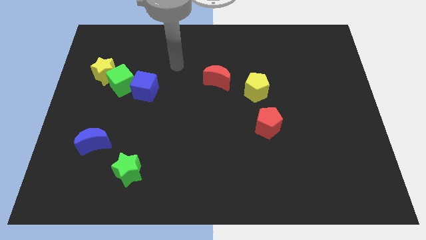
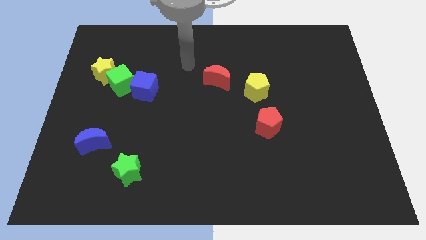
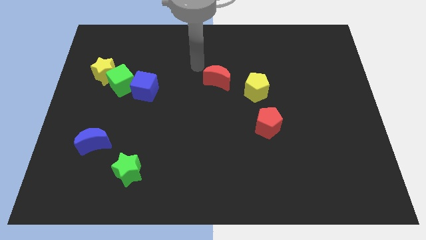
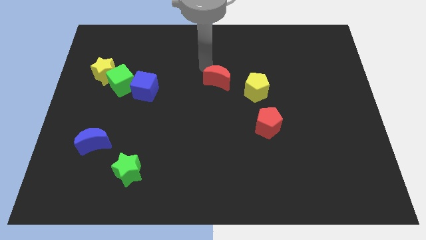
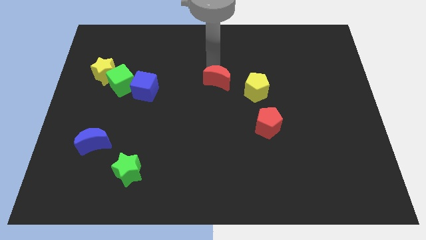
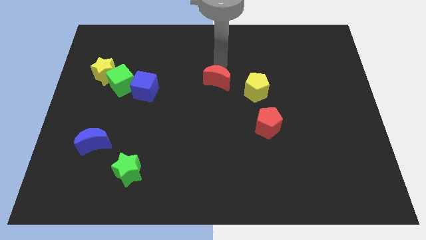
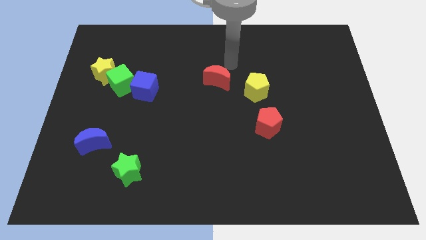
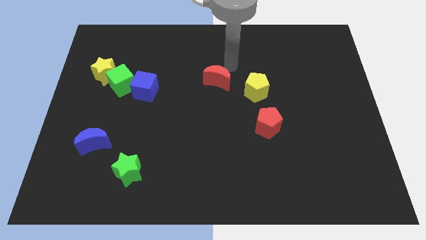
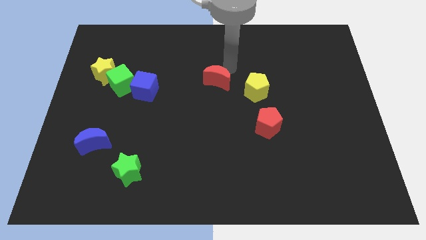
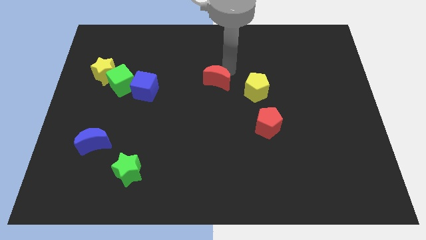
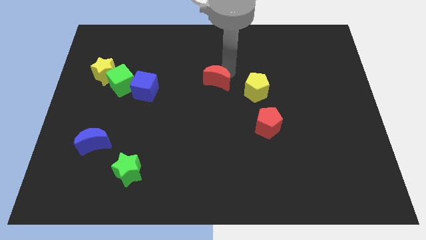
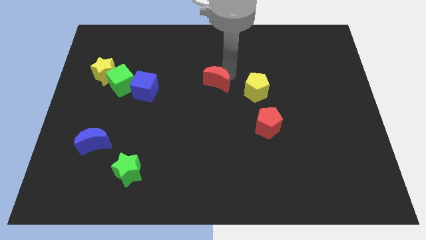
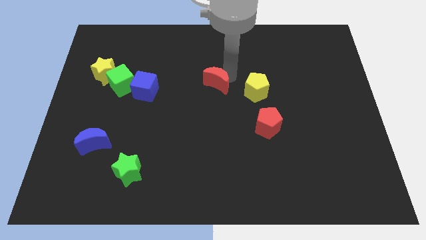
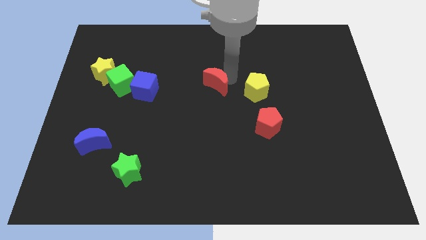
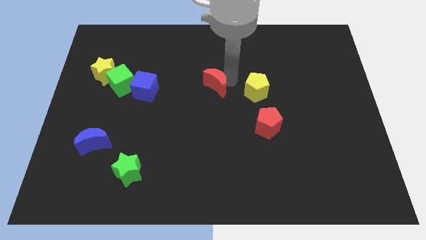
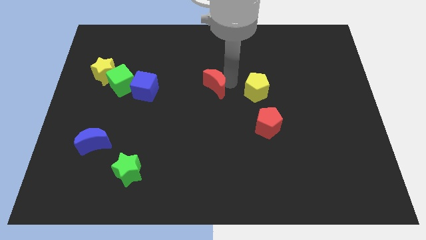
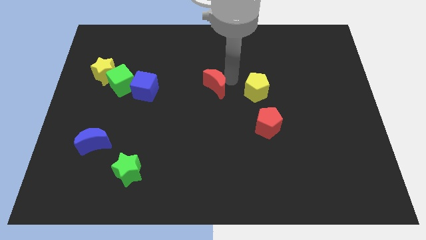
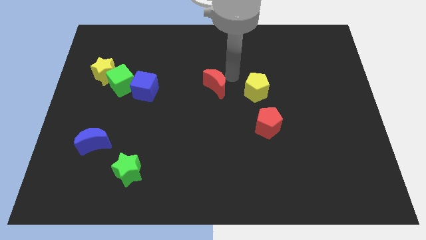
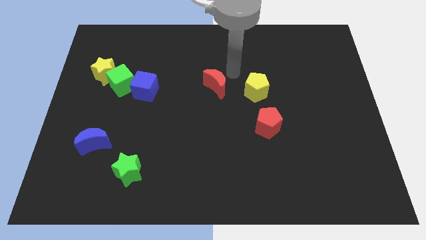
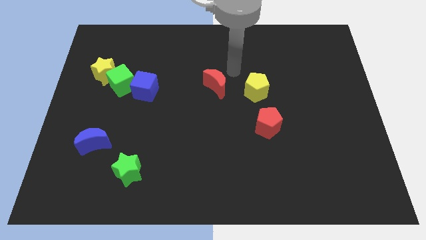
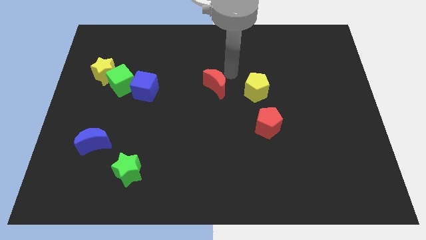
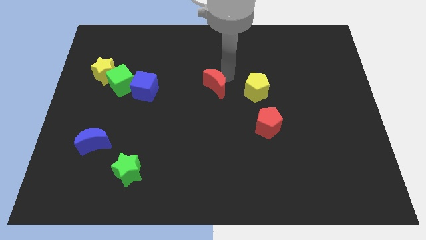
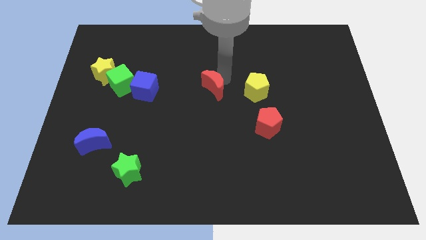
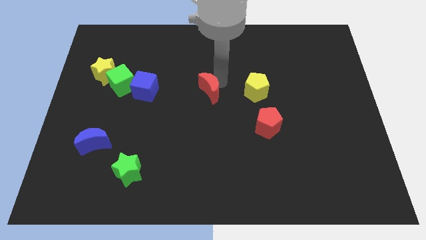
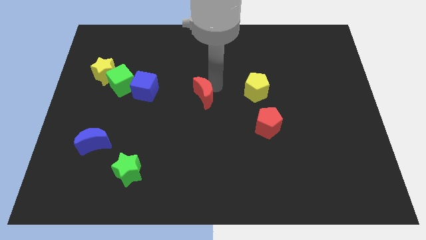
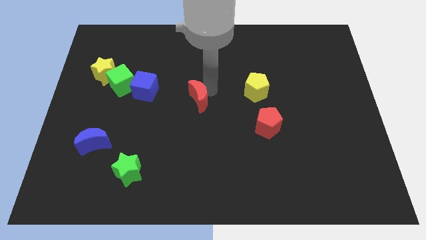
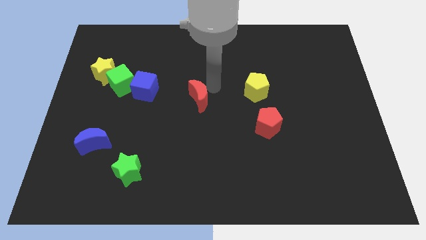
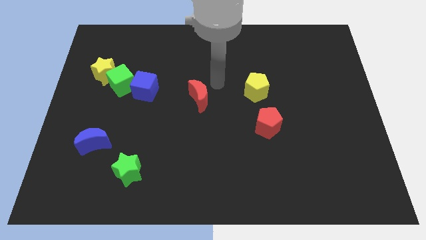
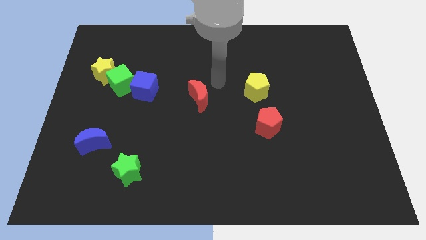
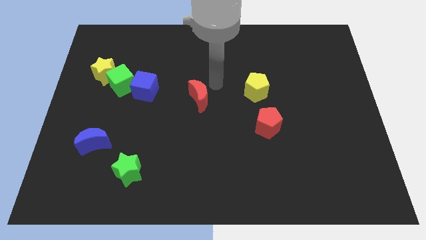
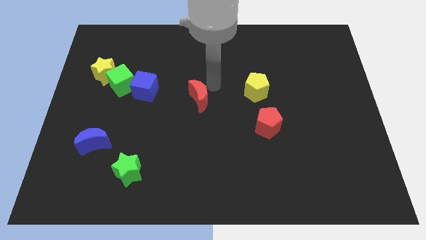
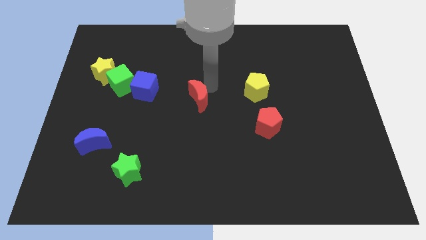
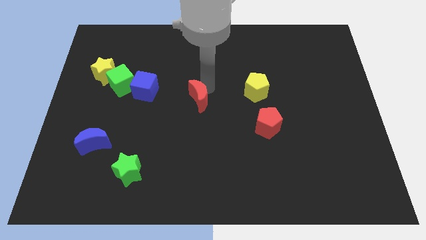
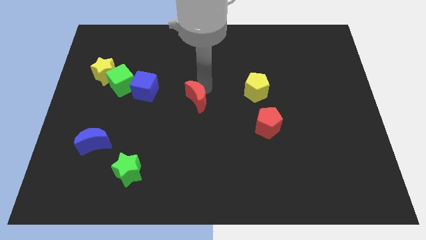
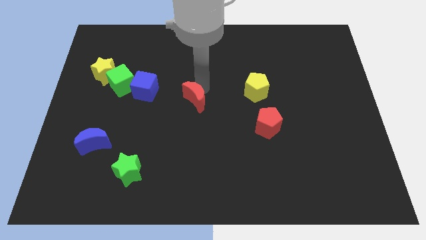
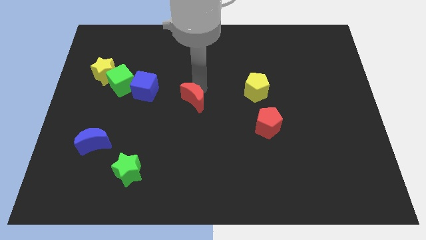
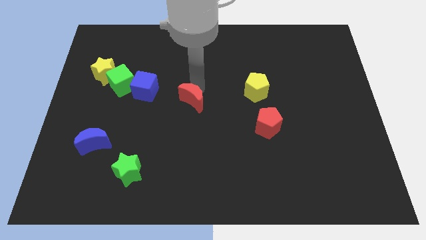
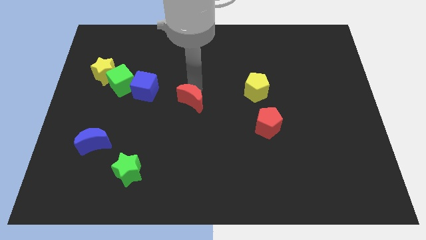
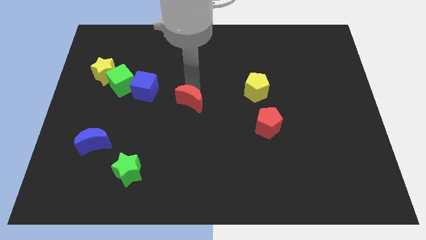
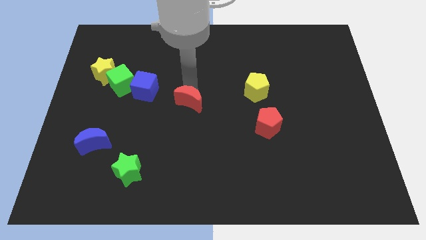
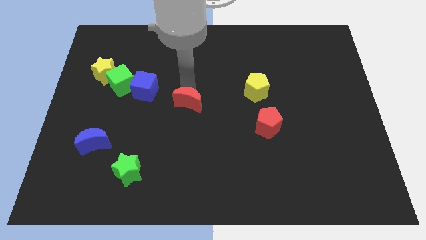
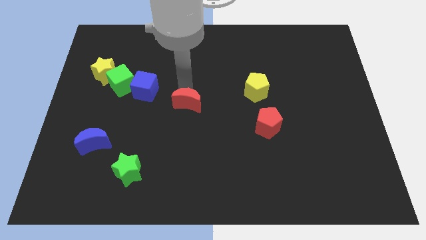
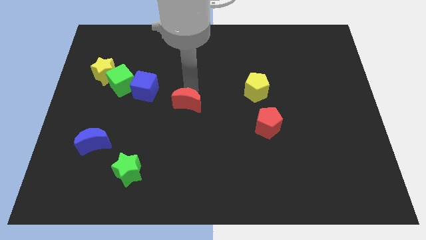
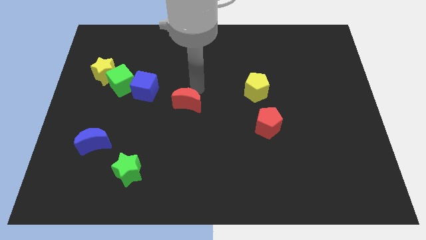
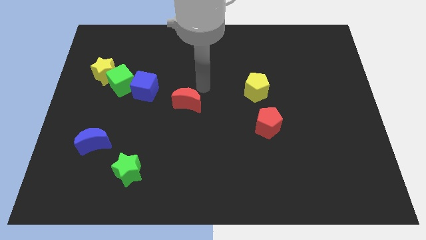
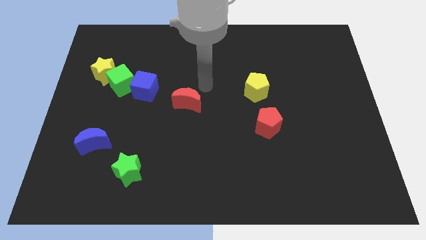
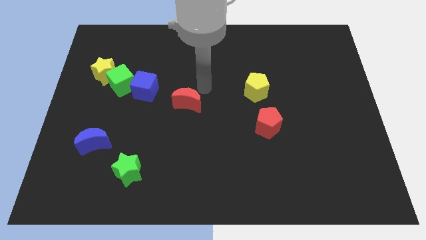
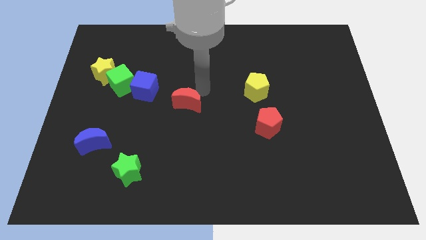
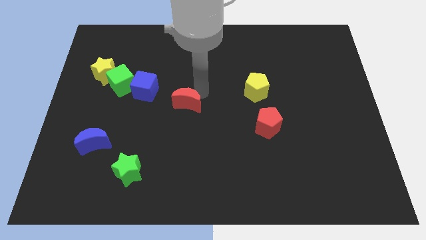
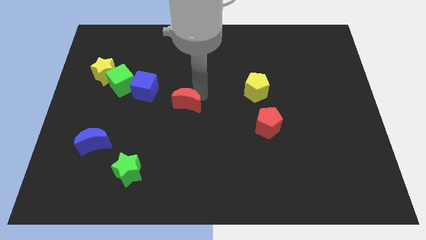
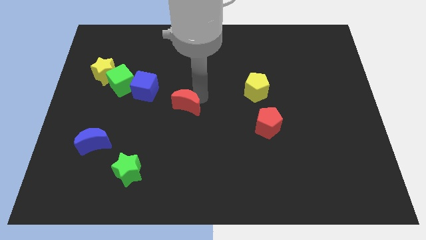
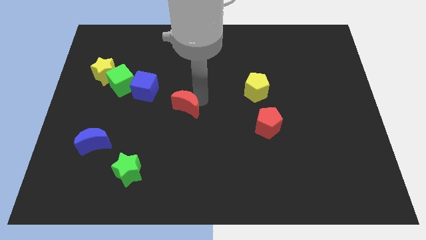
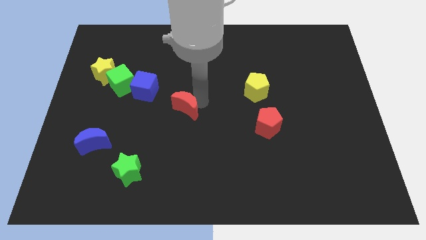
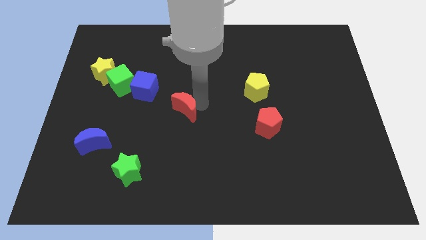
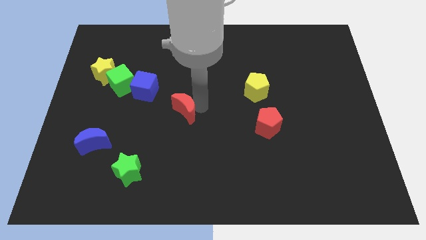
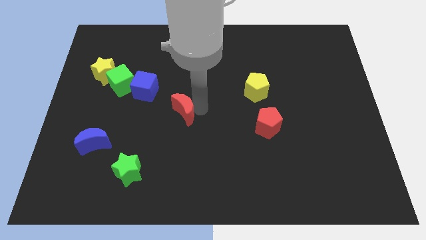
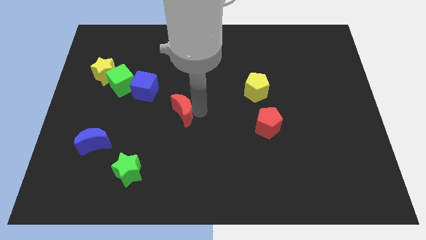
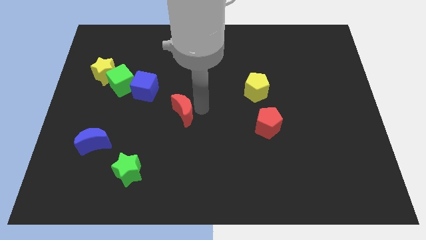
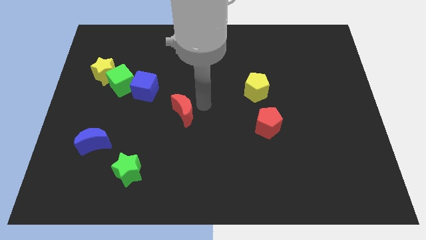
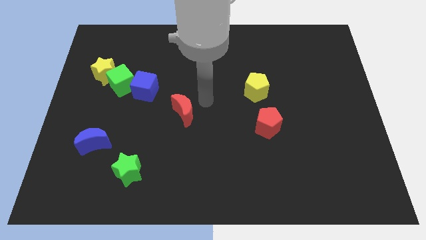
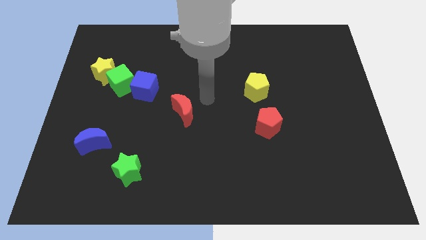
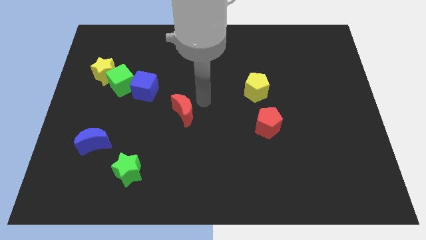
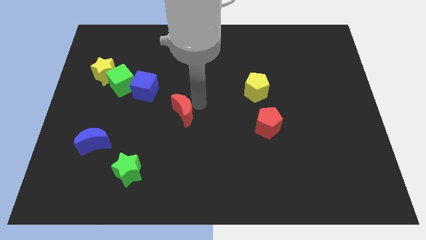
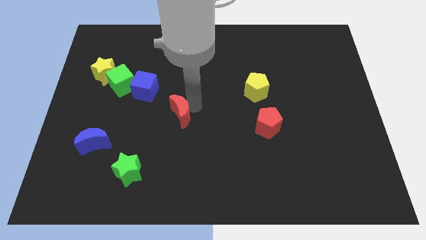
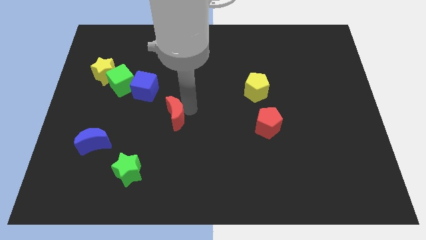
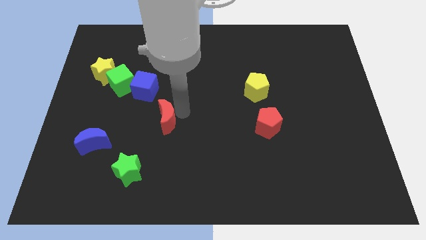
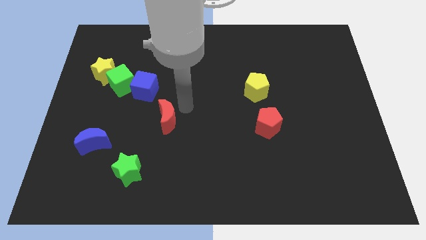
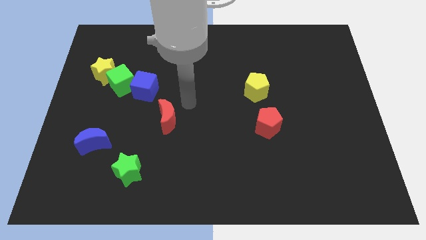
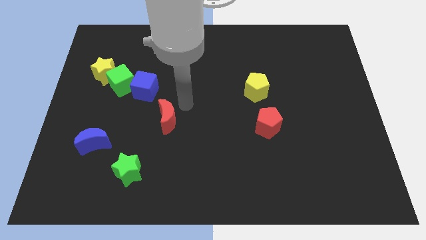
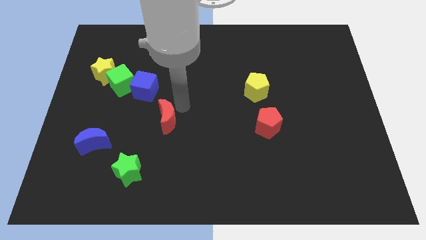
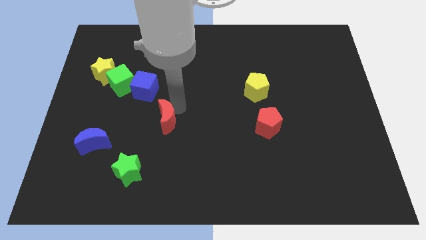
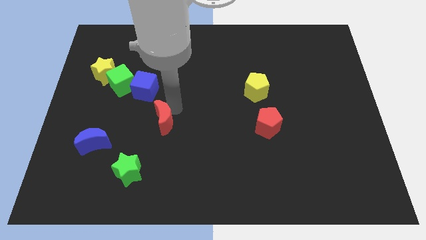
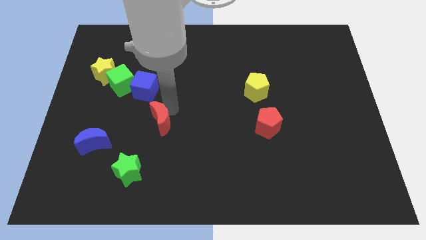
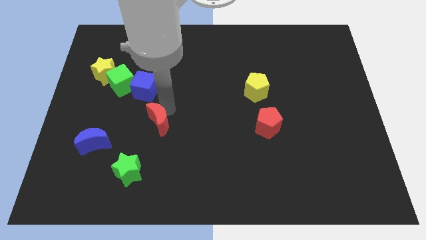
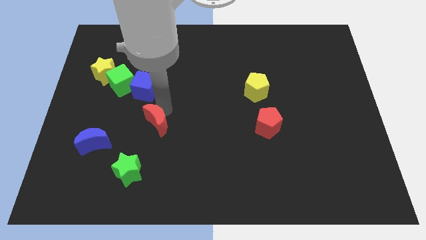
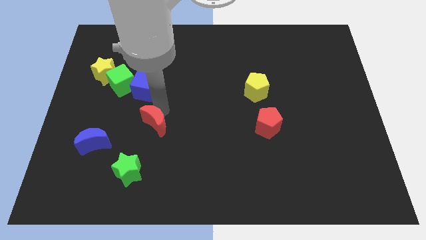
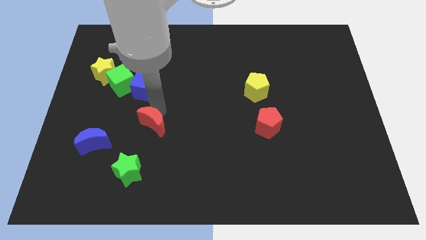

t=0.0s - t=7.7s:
slide the red moon diagonally downwards and left

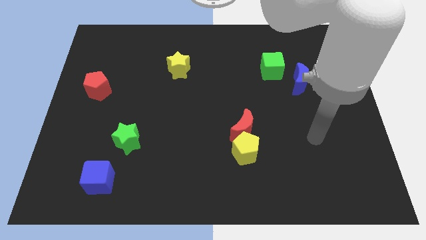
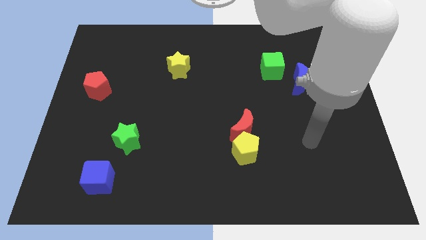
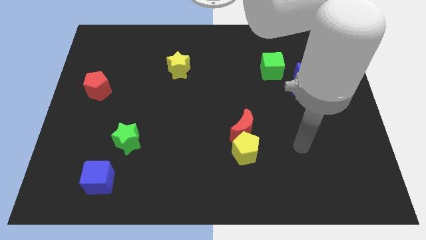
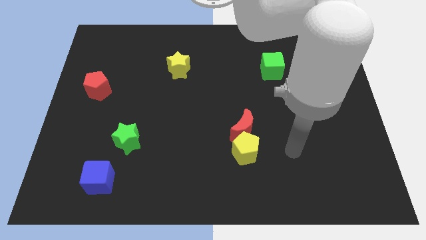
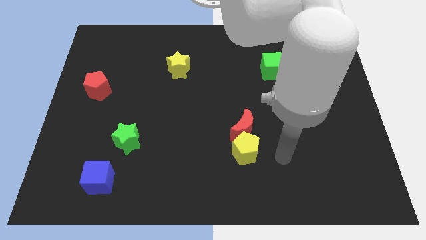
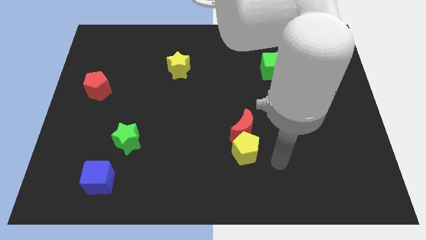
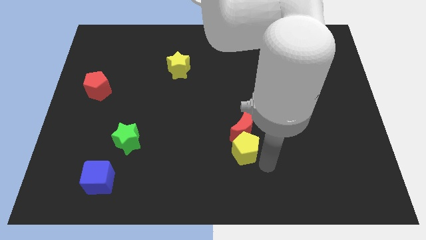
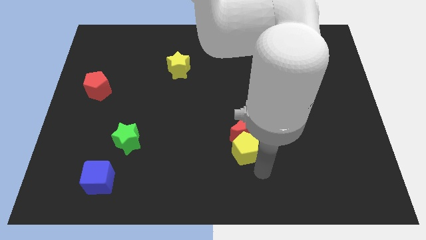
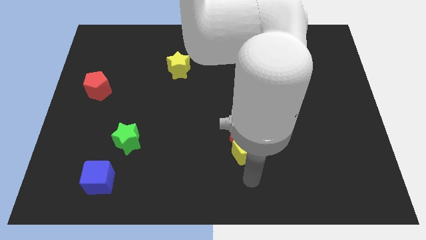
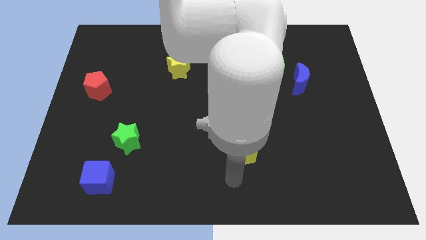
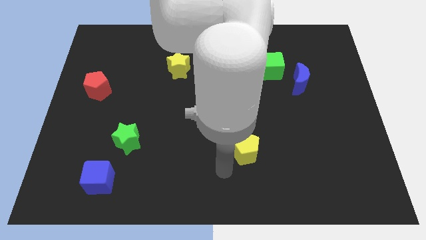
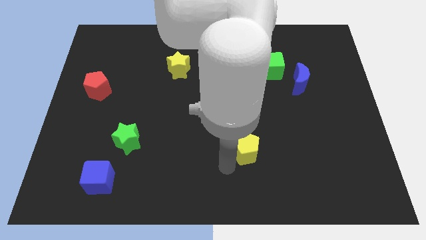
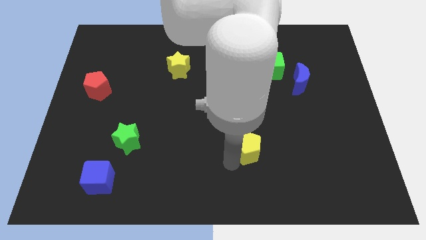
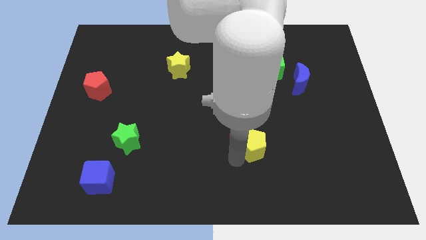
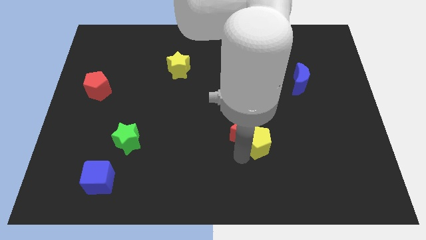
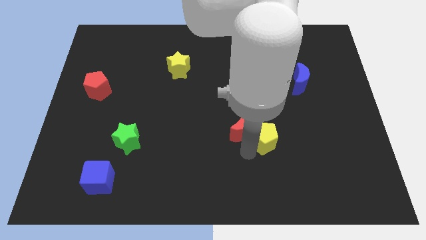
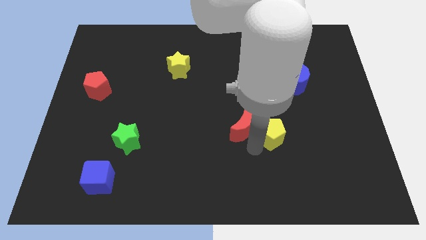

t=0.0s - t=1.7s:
push the yellow pentagon a bit upwards and then right
